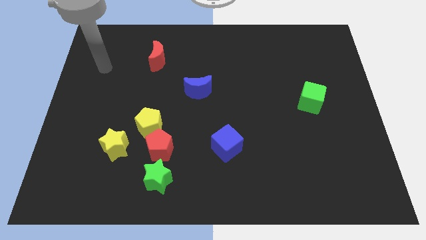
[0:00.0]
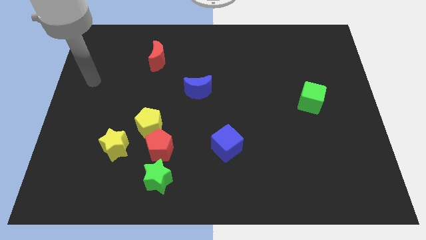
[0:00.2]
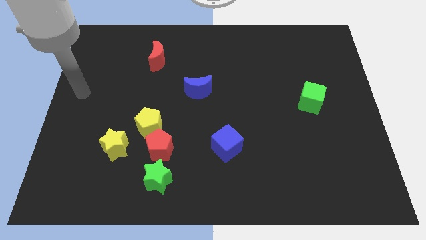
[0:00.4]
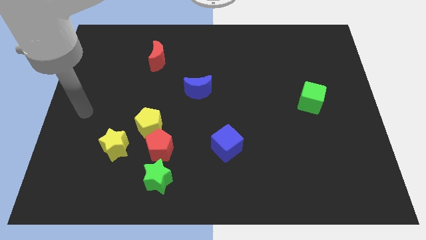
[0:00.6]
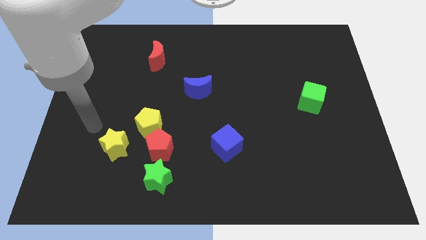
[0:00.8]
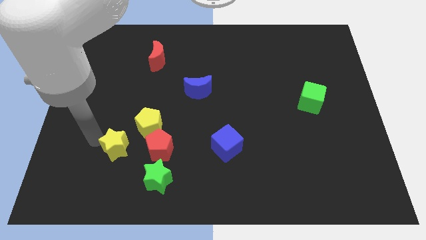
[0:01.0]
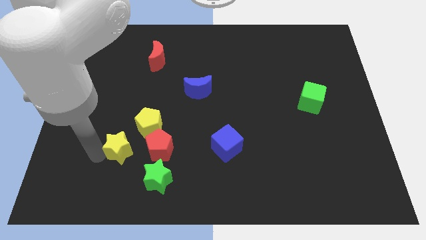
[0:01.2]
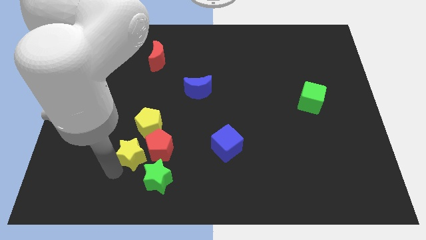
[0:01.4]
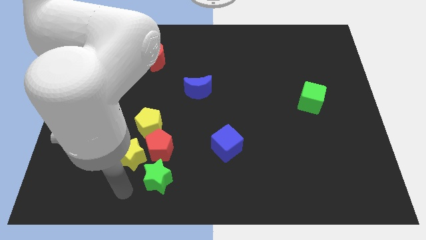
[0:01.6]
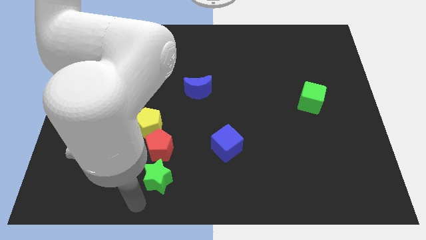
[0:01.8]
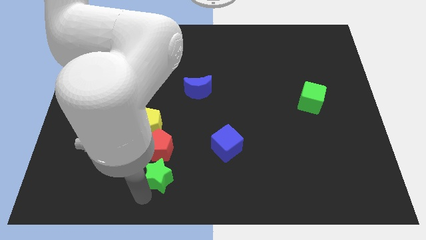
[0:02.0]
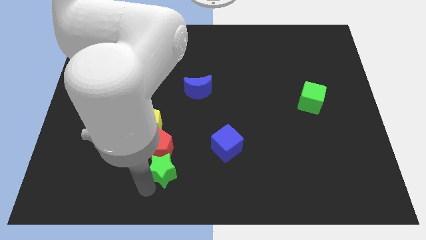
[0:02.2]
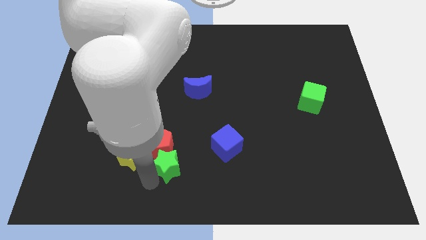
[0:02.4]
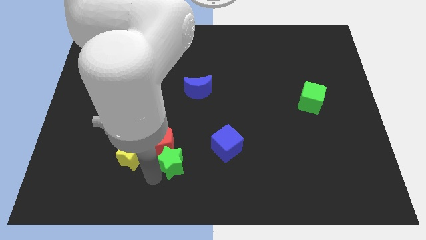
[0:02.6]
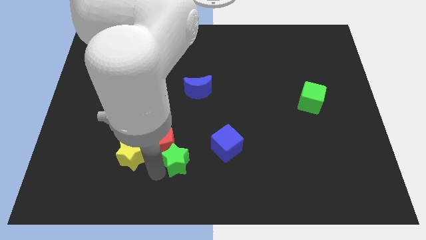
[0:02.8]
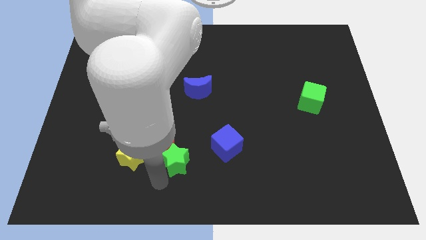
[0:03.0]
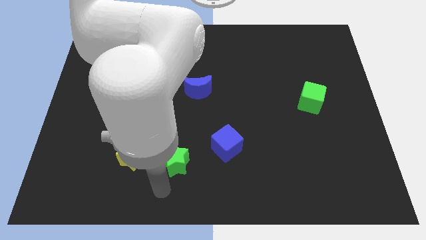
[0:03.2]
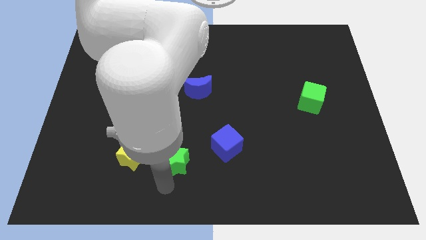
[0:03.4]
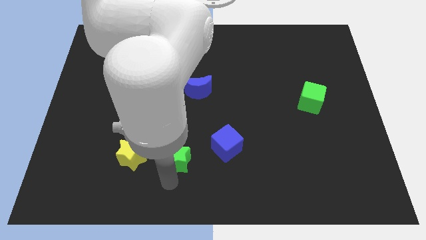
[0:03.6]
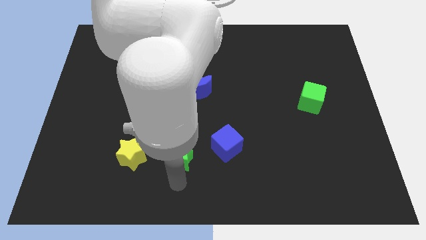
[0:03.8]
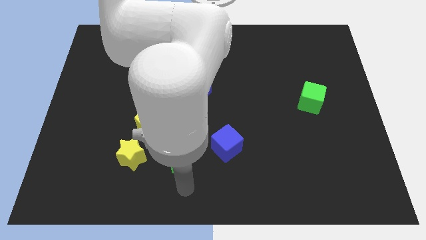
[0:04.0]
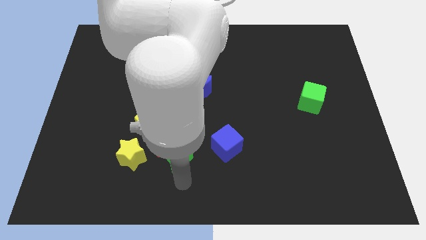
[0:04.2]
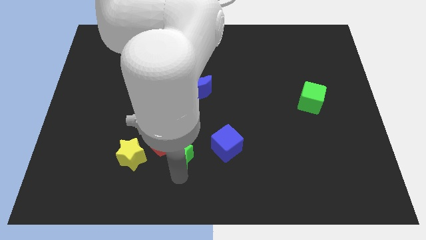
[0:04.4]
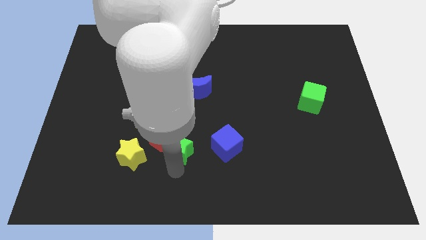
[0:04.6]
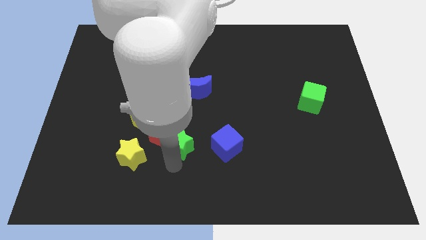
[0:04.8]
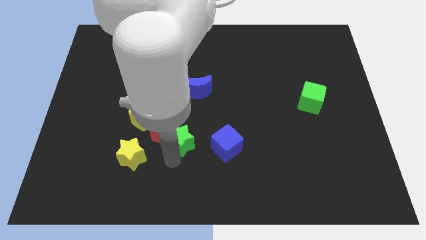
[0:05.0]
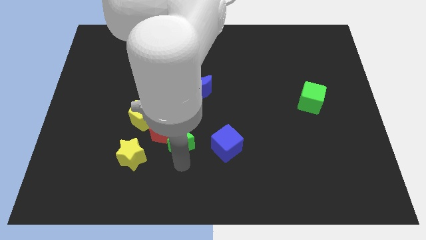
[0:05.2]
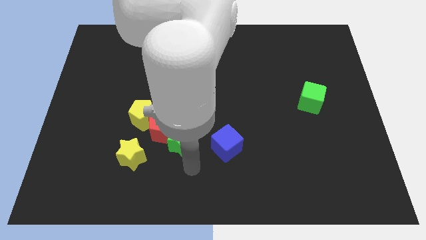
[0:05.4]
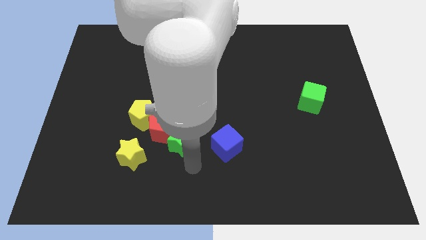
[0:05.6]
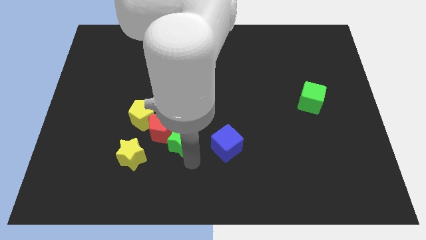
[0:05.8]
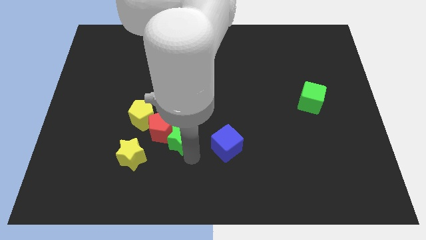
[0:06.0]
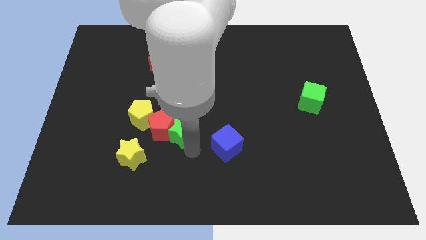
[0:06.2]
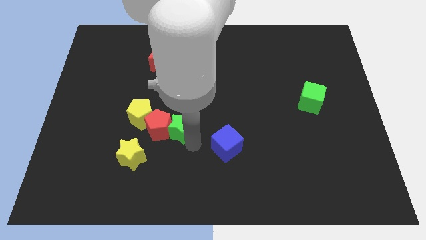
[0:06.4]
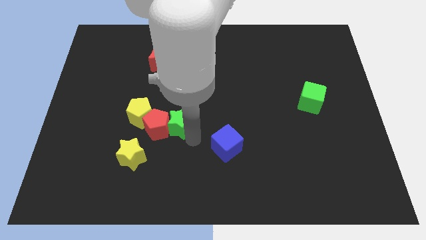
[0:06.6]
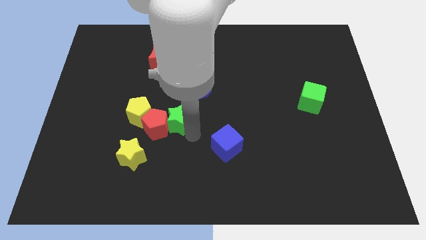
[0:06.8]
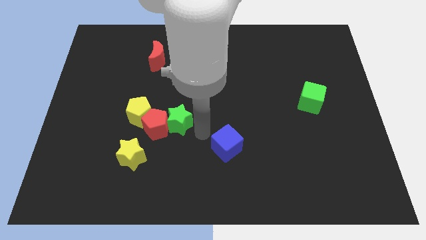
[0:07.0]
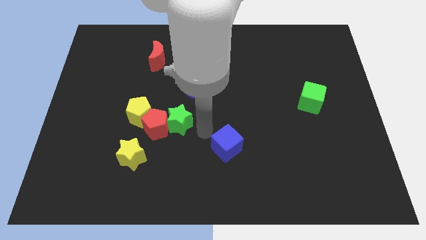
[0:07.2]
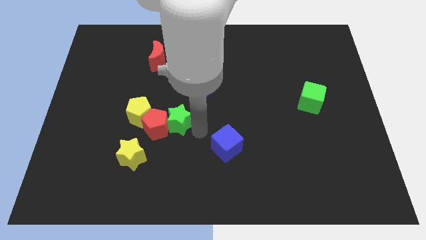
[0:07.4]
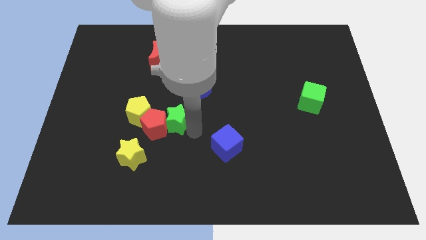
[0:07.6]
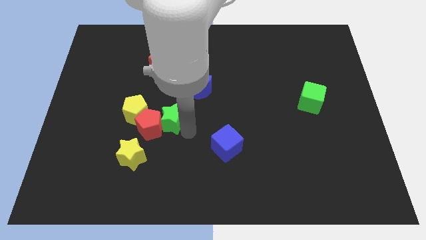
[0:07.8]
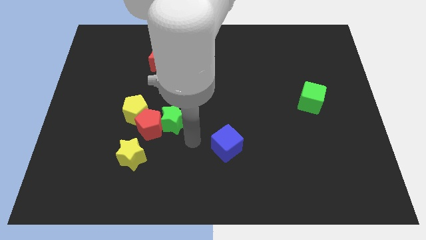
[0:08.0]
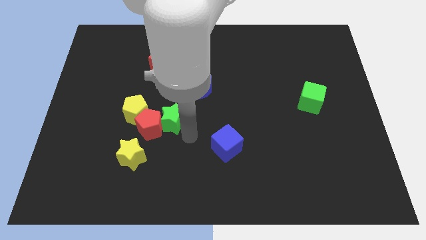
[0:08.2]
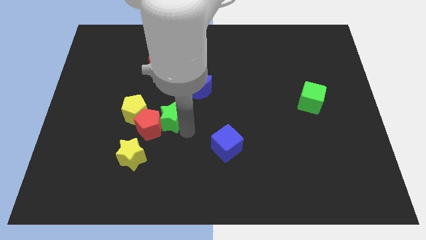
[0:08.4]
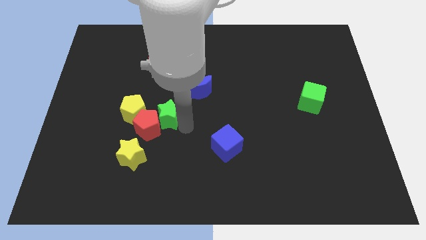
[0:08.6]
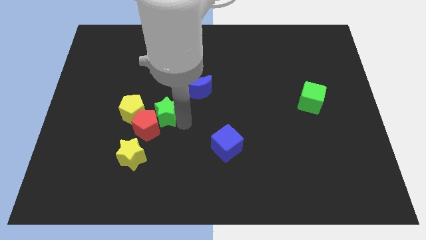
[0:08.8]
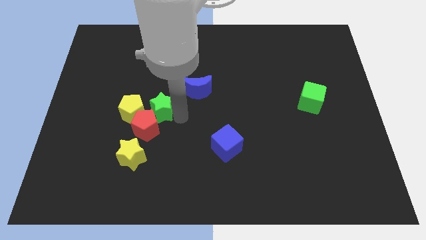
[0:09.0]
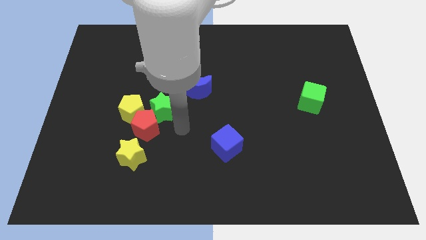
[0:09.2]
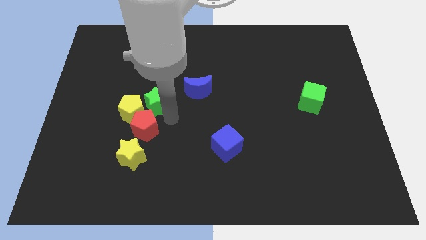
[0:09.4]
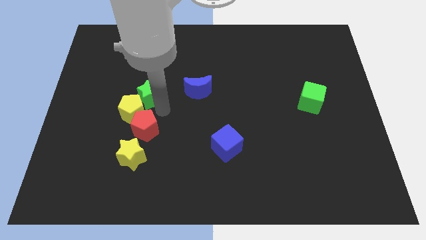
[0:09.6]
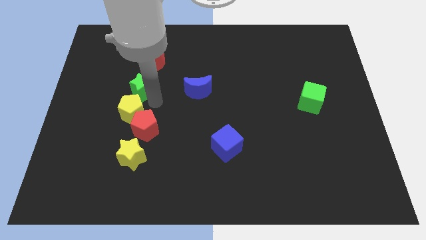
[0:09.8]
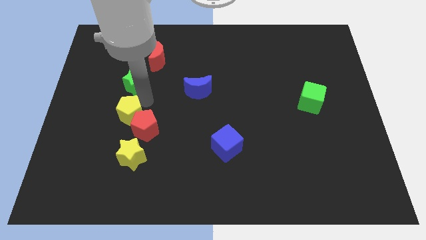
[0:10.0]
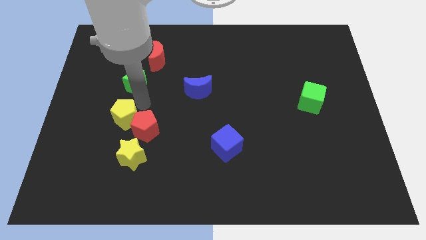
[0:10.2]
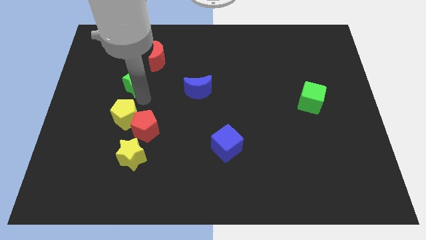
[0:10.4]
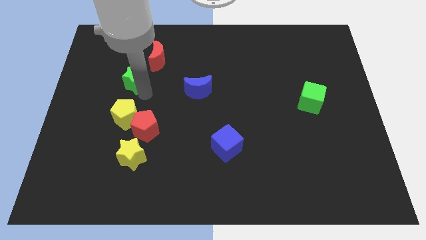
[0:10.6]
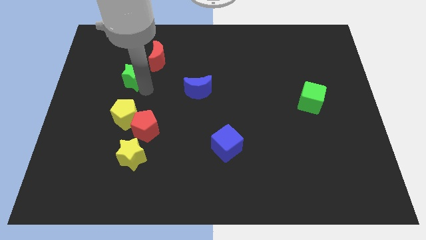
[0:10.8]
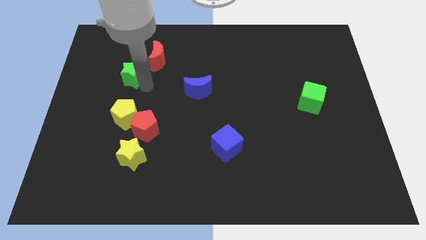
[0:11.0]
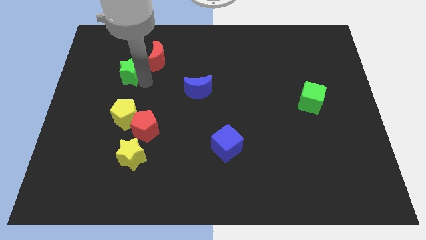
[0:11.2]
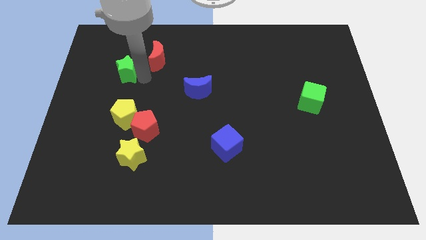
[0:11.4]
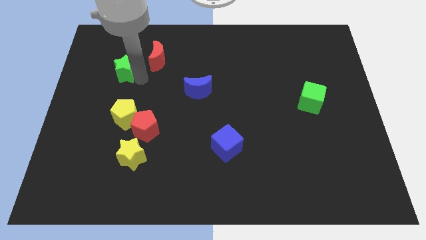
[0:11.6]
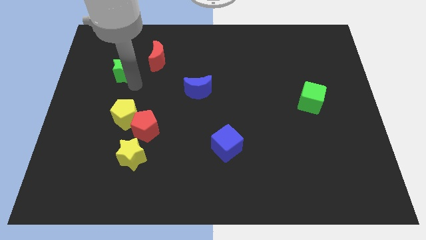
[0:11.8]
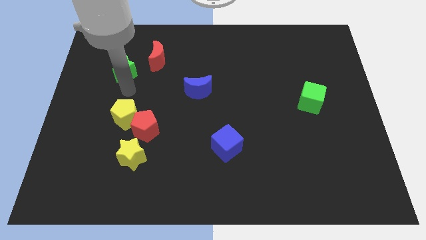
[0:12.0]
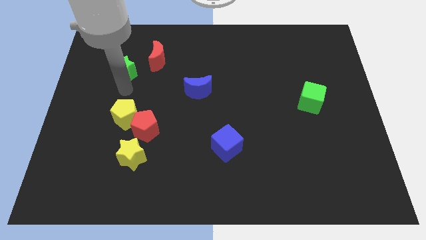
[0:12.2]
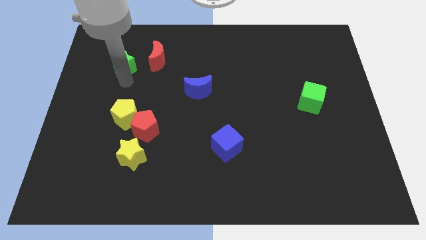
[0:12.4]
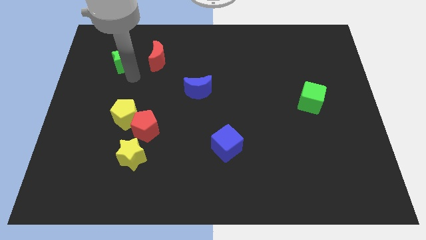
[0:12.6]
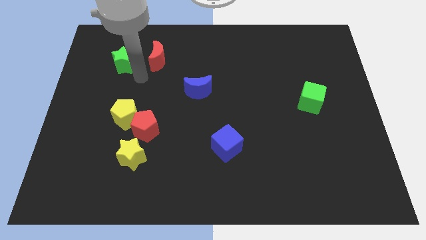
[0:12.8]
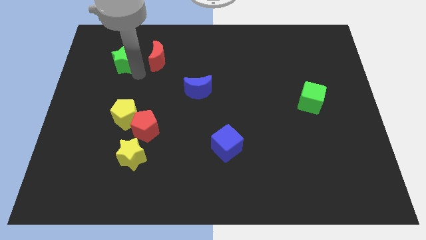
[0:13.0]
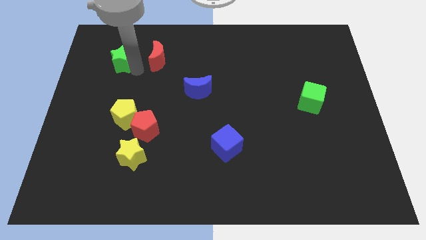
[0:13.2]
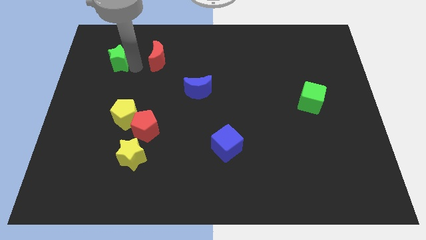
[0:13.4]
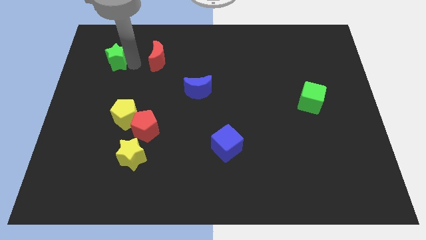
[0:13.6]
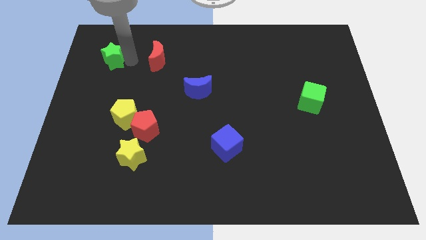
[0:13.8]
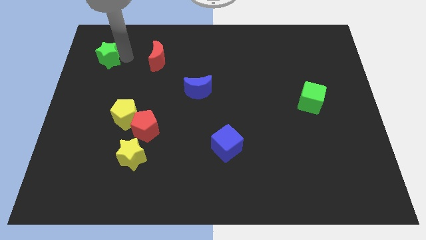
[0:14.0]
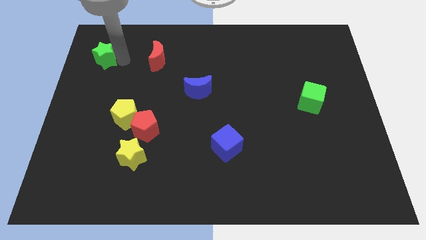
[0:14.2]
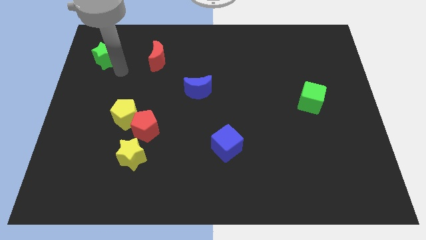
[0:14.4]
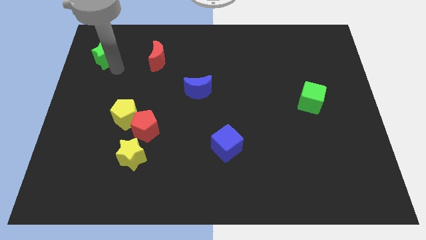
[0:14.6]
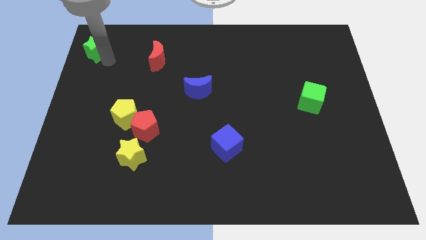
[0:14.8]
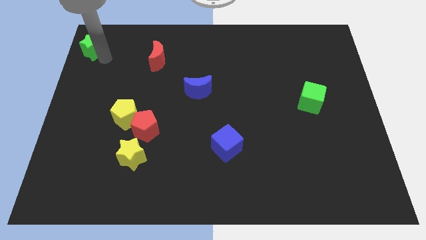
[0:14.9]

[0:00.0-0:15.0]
move the green star to the top left
